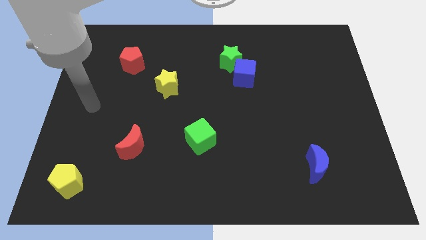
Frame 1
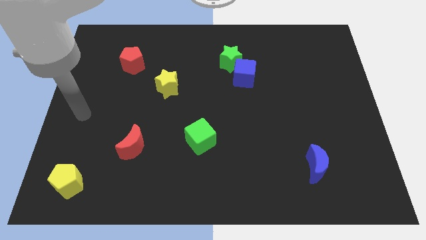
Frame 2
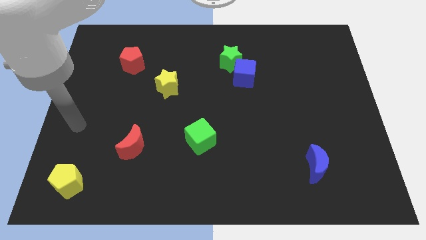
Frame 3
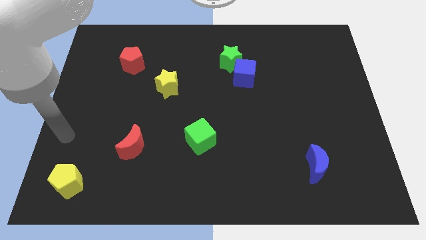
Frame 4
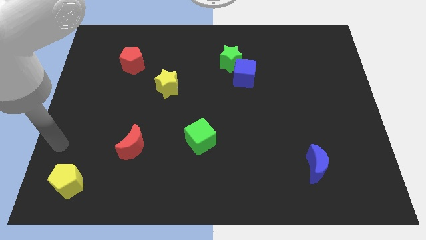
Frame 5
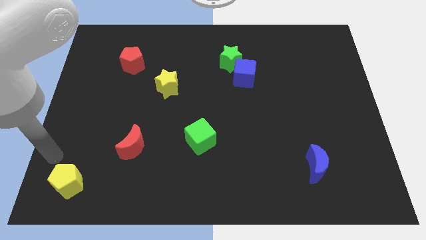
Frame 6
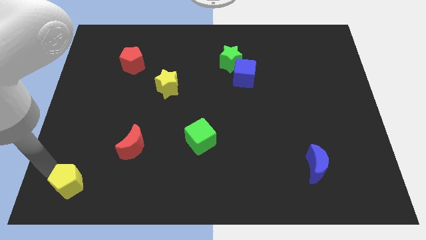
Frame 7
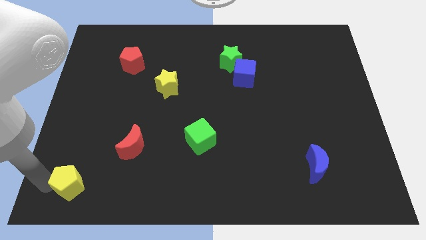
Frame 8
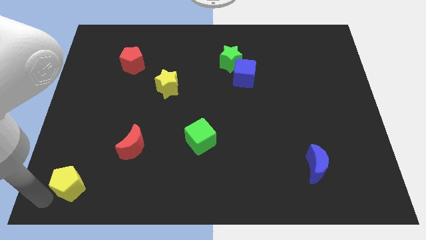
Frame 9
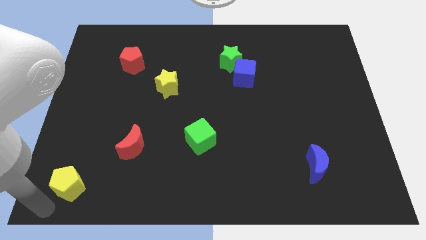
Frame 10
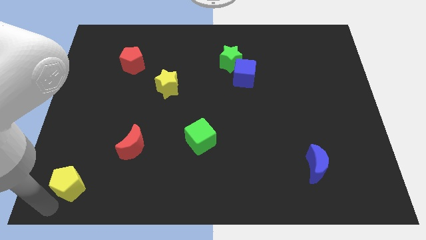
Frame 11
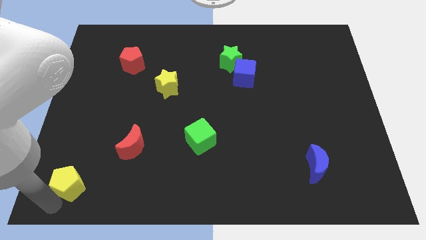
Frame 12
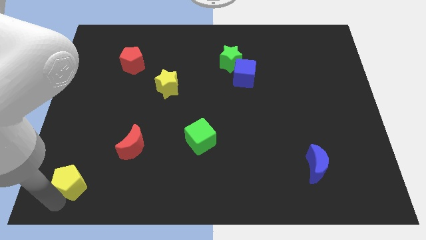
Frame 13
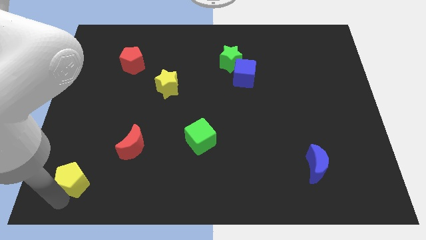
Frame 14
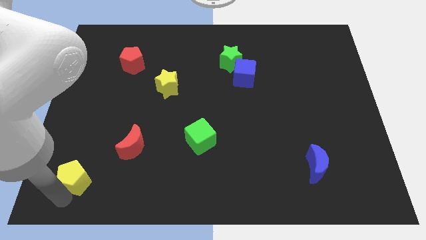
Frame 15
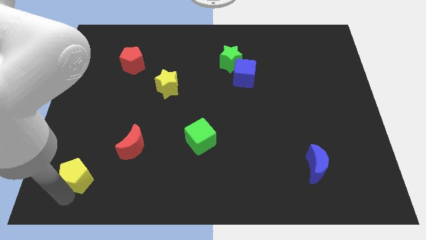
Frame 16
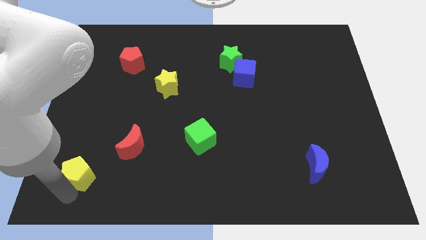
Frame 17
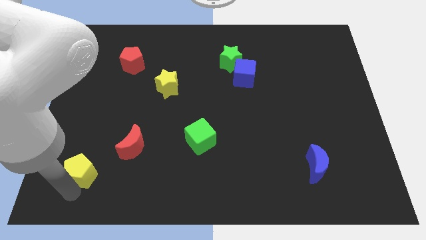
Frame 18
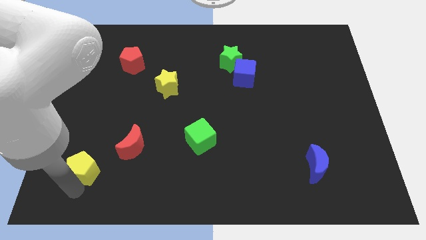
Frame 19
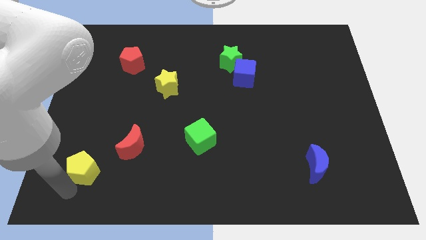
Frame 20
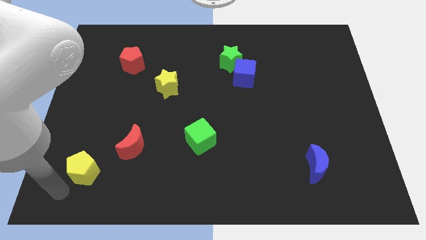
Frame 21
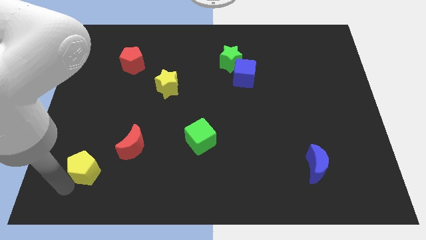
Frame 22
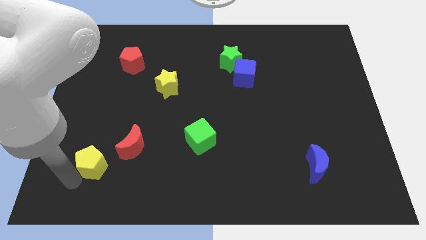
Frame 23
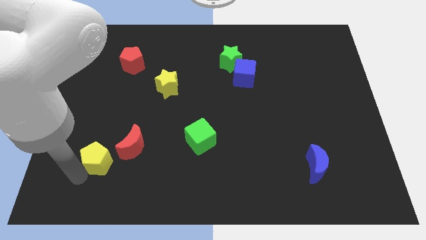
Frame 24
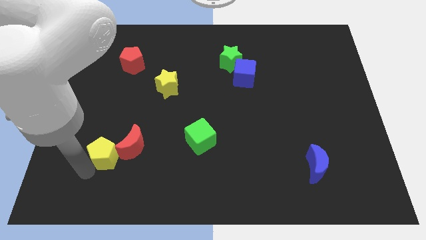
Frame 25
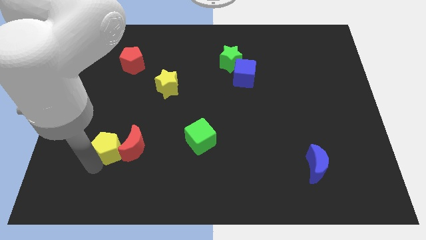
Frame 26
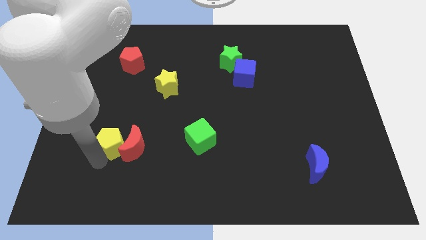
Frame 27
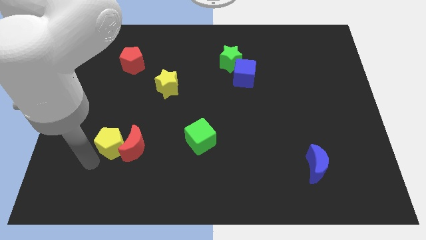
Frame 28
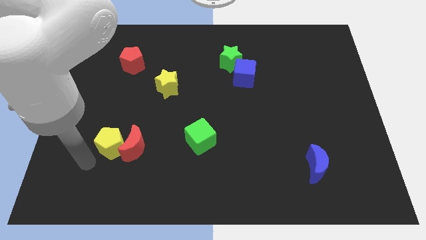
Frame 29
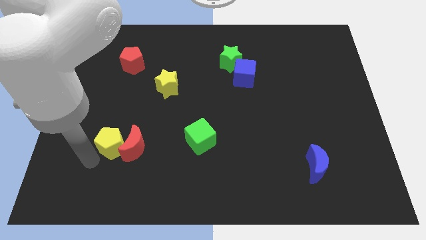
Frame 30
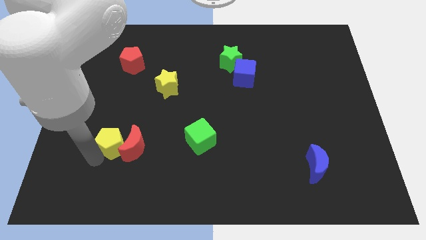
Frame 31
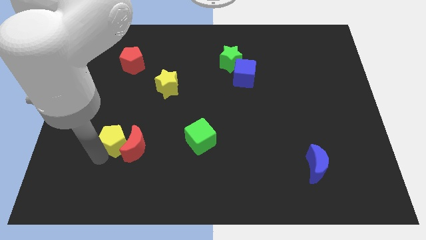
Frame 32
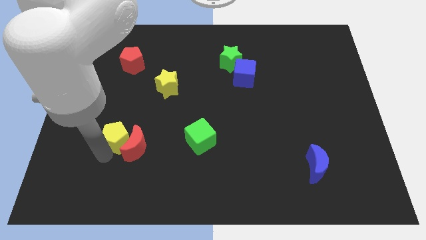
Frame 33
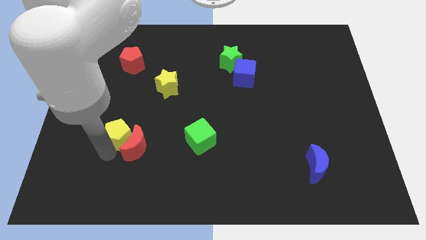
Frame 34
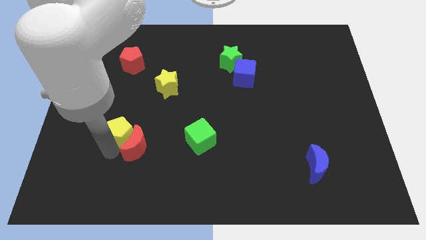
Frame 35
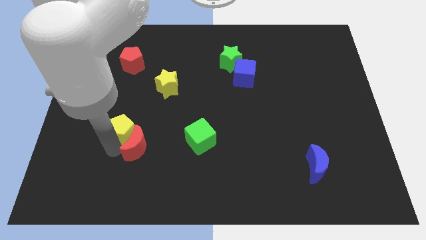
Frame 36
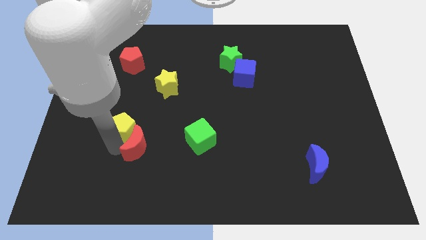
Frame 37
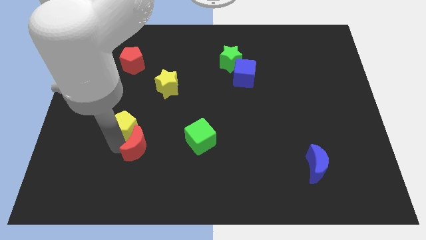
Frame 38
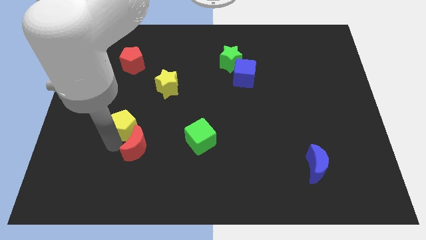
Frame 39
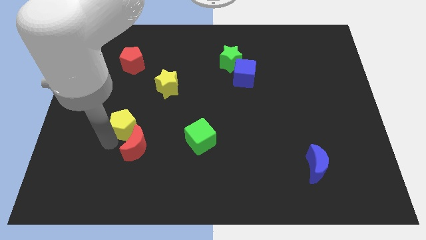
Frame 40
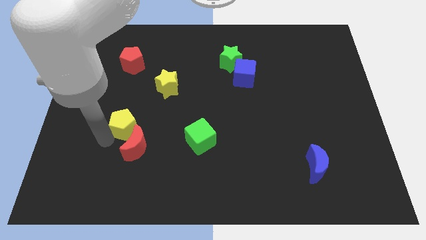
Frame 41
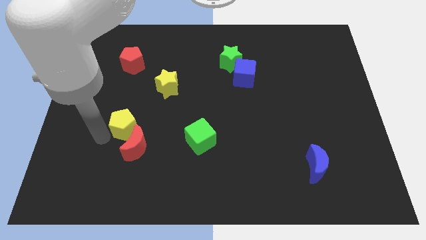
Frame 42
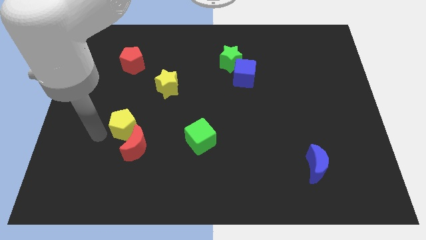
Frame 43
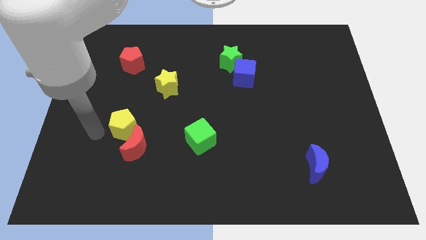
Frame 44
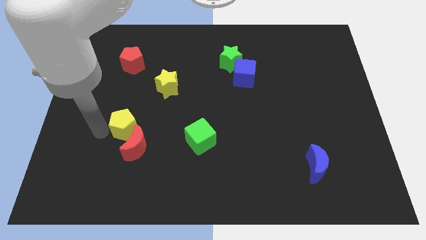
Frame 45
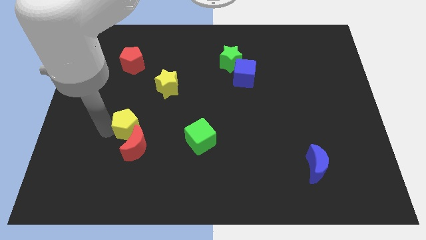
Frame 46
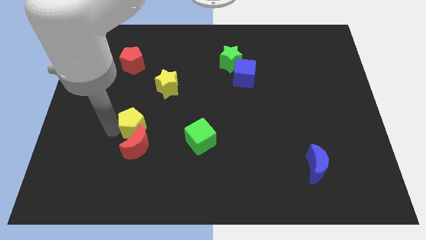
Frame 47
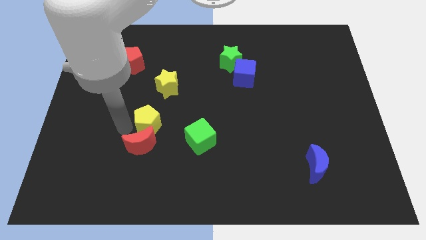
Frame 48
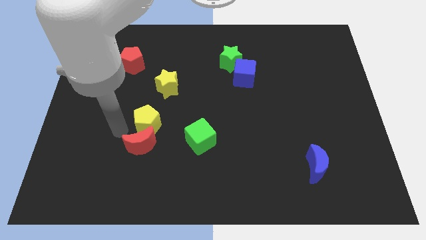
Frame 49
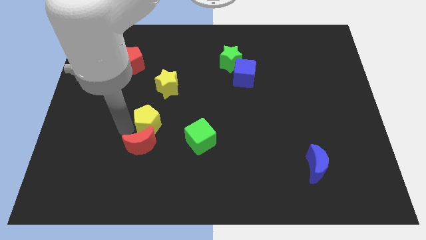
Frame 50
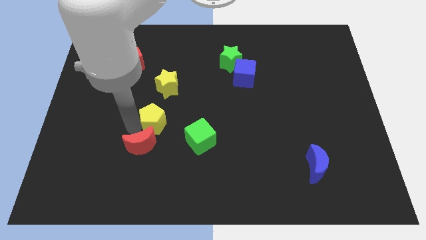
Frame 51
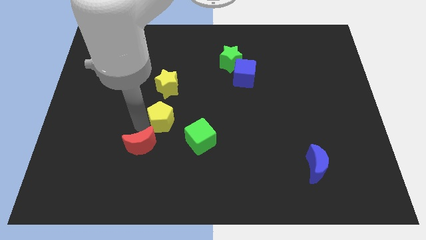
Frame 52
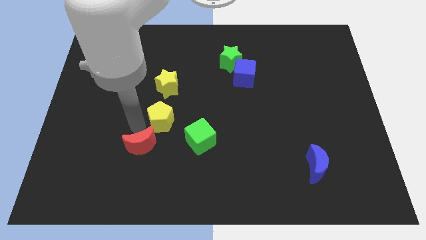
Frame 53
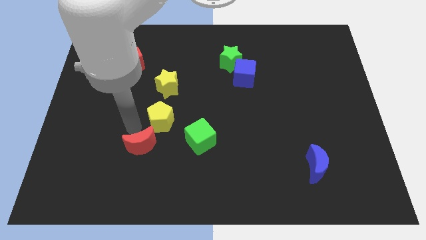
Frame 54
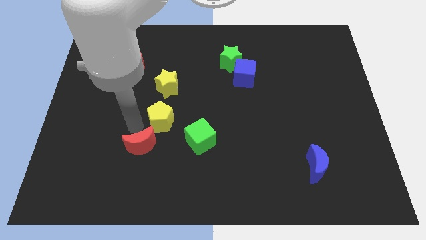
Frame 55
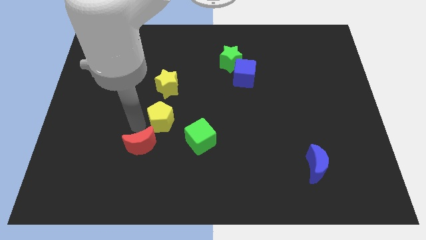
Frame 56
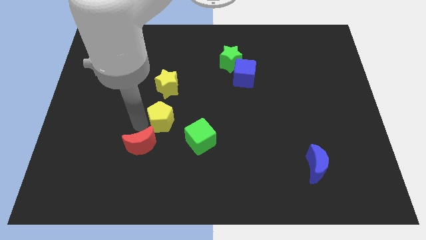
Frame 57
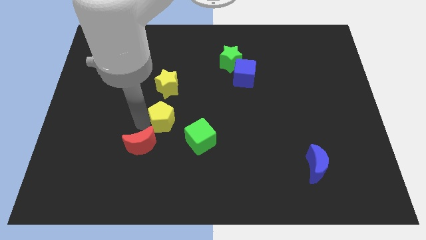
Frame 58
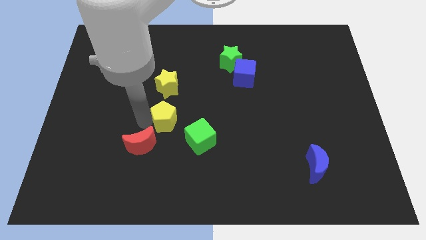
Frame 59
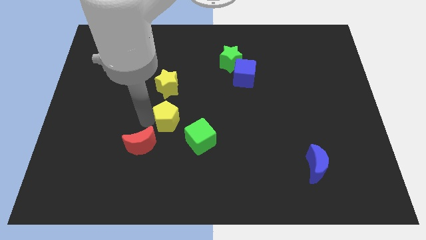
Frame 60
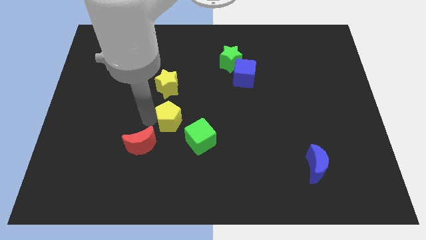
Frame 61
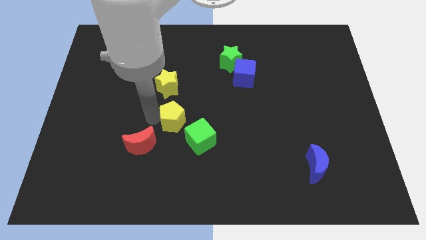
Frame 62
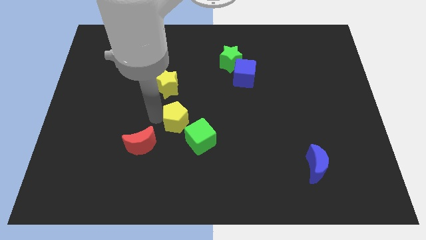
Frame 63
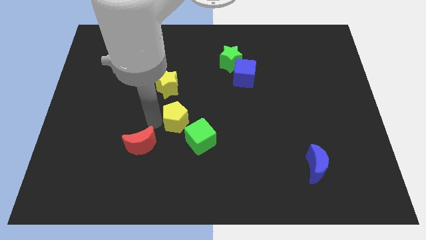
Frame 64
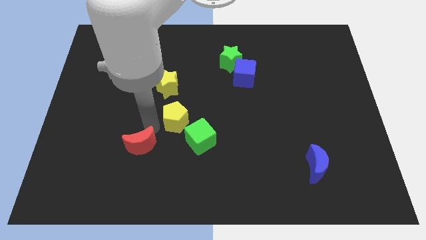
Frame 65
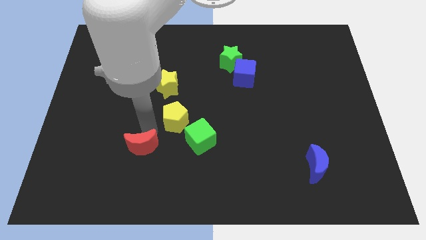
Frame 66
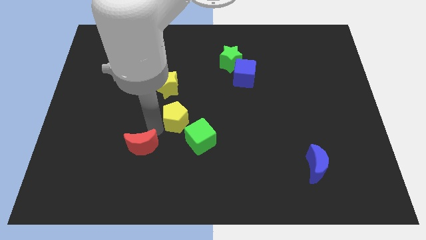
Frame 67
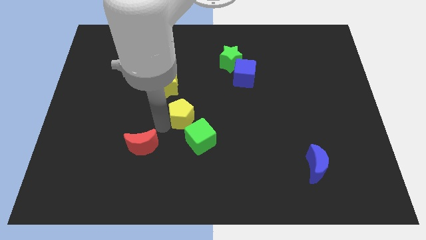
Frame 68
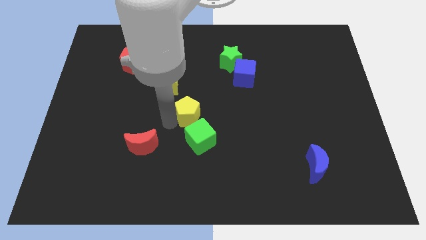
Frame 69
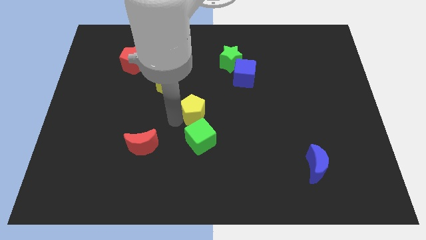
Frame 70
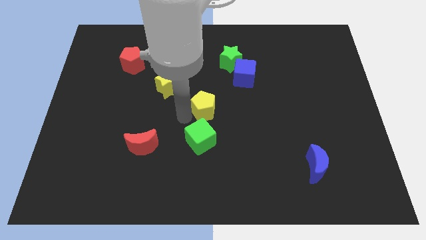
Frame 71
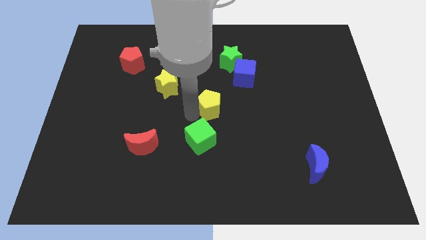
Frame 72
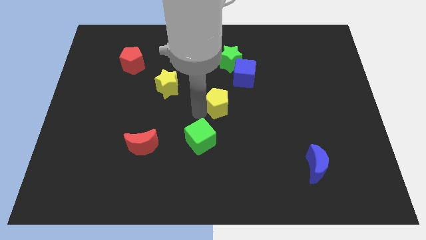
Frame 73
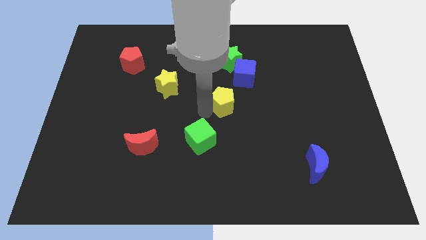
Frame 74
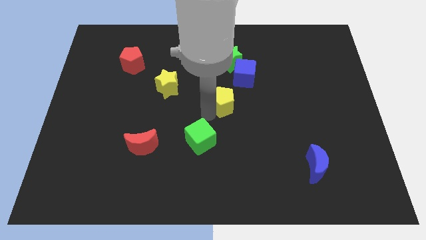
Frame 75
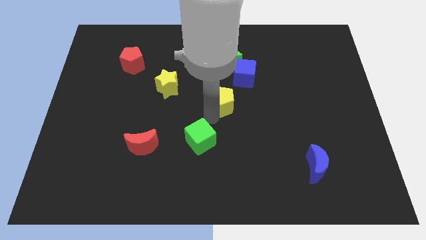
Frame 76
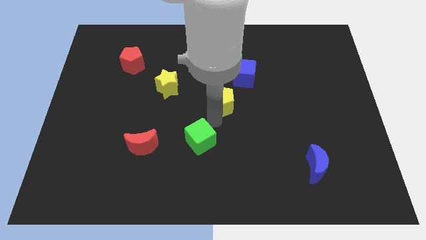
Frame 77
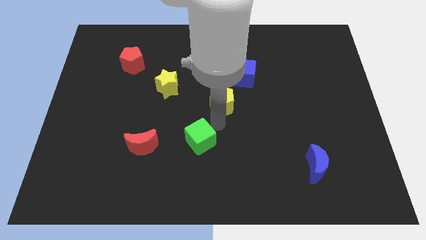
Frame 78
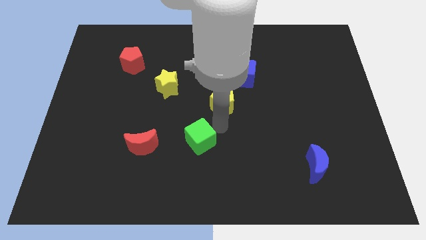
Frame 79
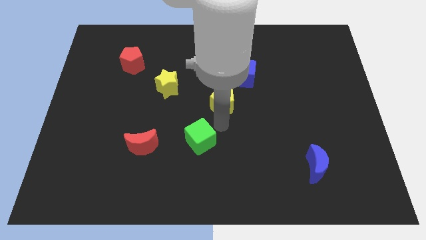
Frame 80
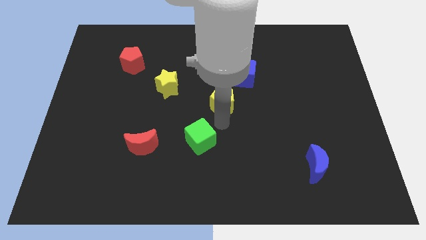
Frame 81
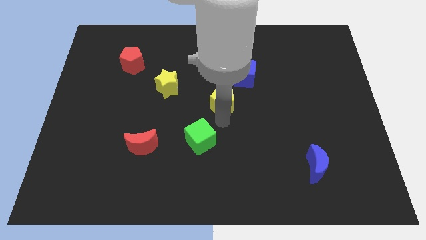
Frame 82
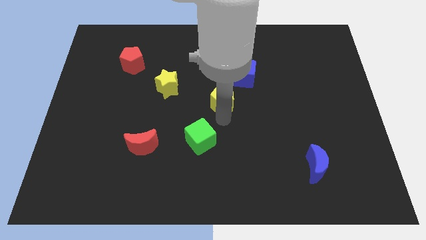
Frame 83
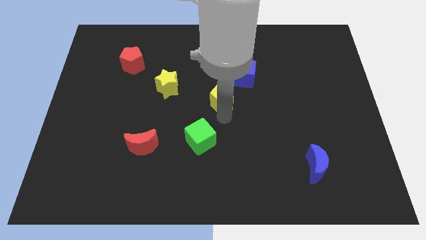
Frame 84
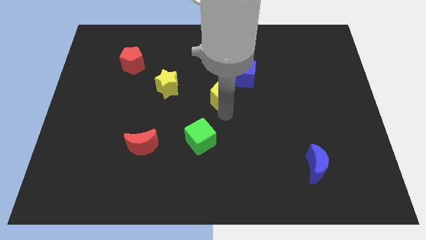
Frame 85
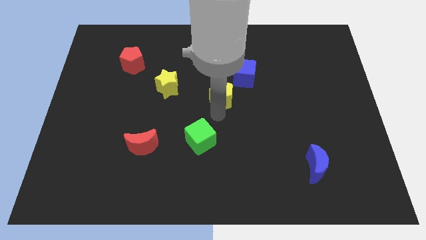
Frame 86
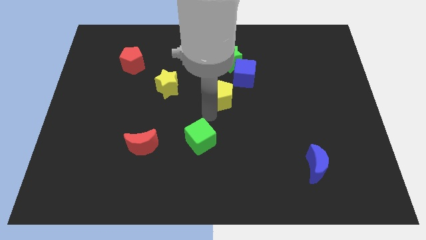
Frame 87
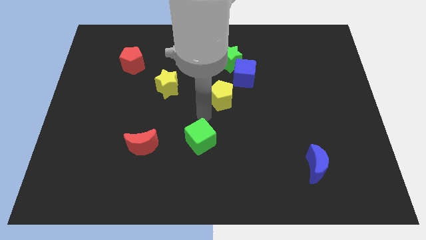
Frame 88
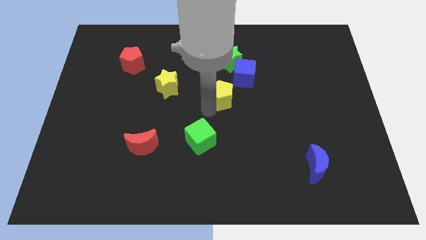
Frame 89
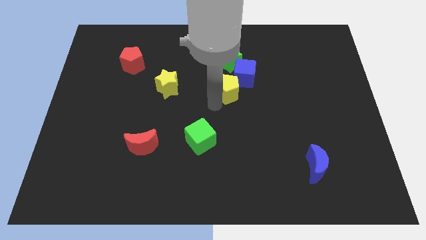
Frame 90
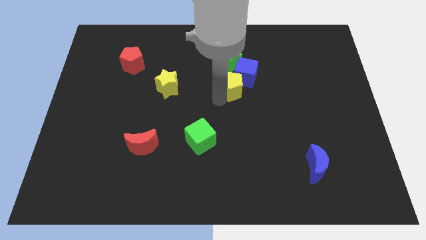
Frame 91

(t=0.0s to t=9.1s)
push the yellow pentagon close to the blue cube
